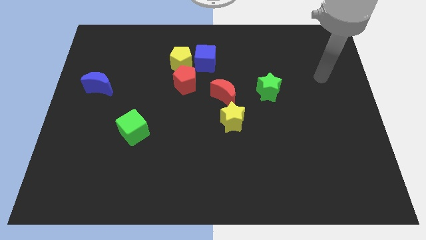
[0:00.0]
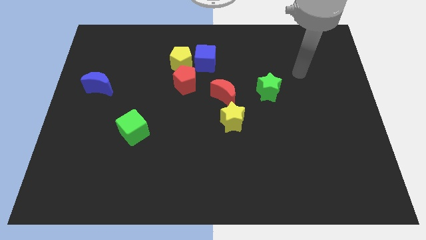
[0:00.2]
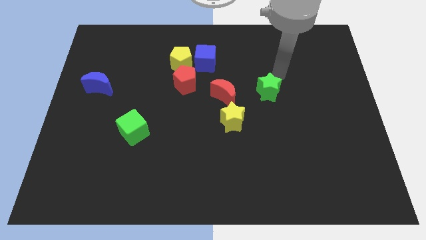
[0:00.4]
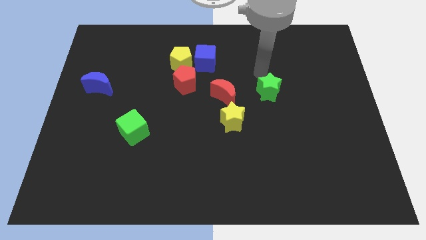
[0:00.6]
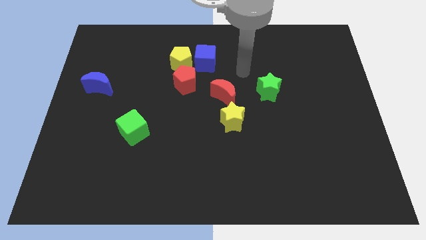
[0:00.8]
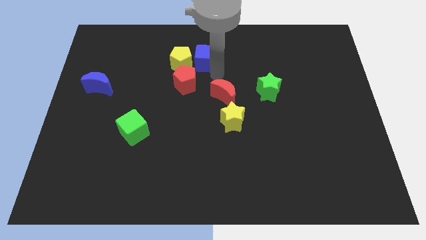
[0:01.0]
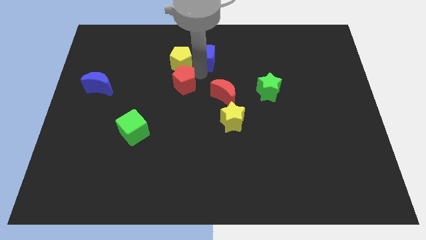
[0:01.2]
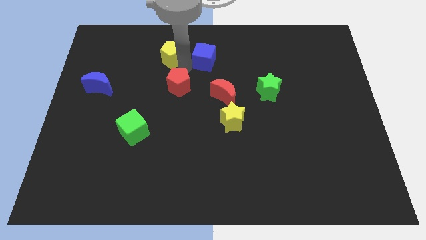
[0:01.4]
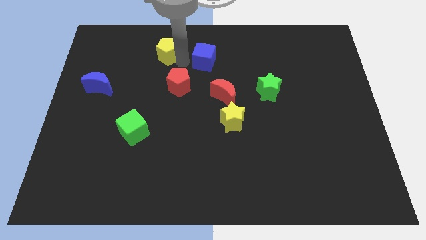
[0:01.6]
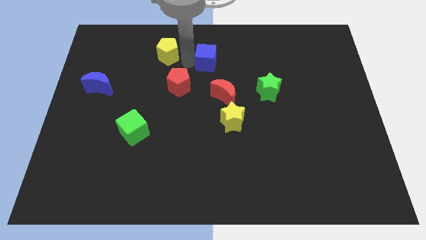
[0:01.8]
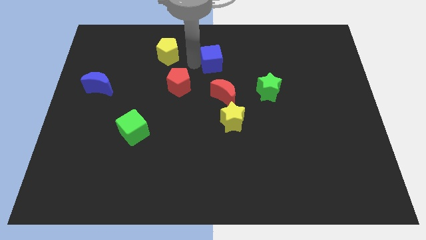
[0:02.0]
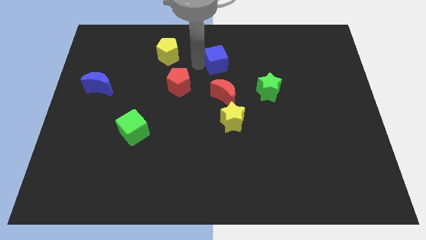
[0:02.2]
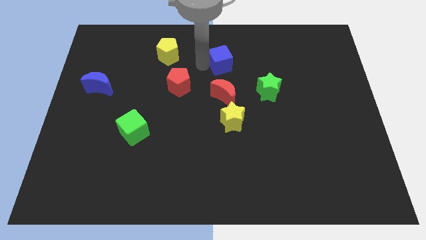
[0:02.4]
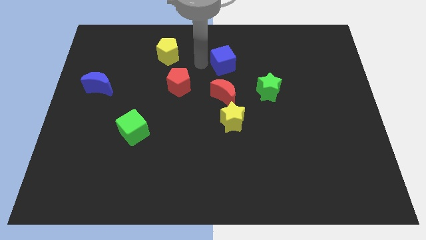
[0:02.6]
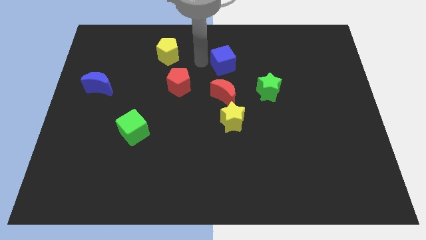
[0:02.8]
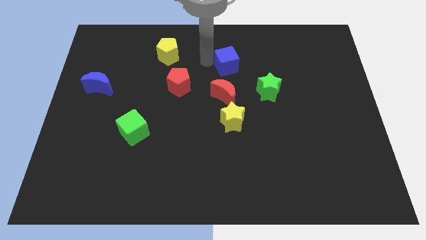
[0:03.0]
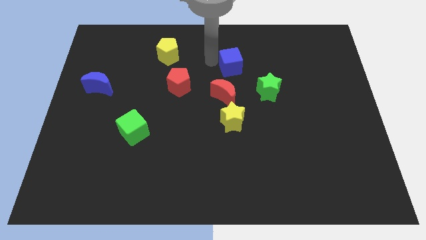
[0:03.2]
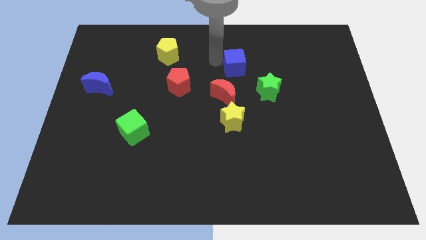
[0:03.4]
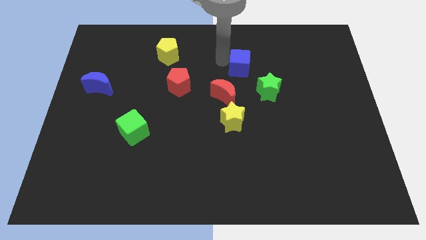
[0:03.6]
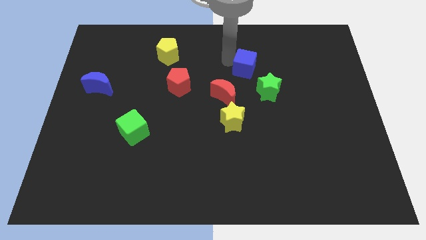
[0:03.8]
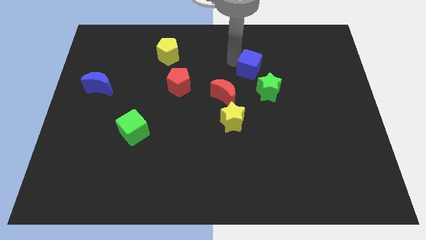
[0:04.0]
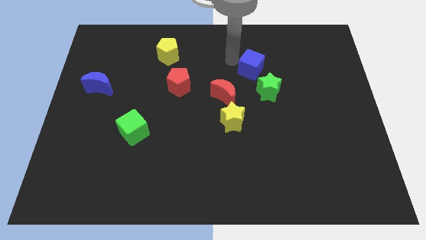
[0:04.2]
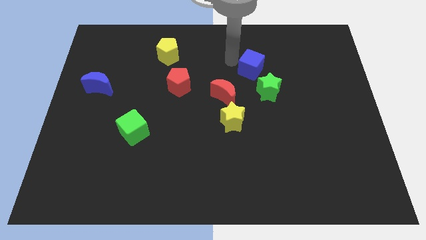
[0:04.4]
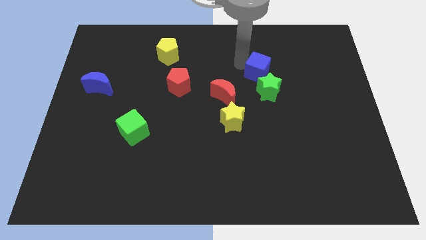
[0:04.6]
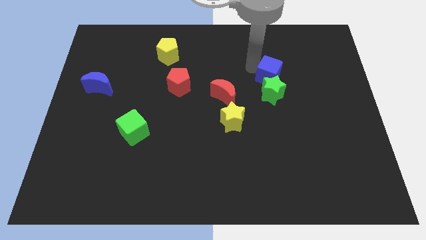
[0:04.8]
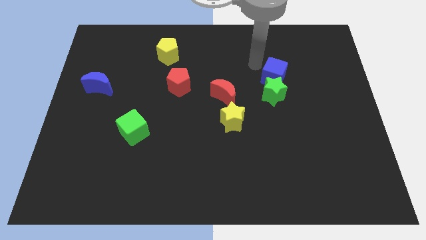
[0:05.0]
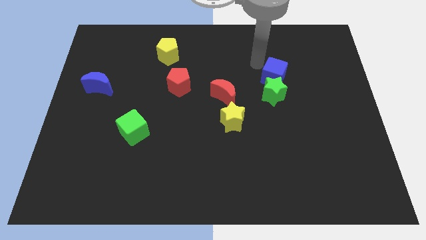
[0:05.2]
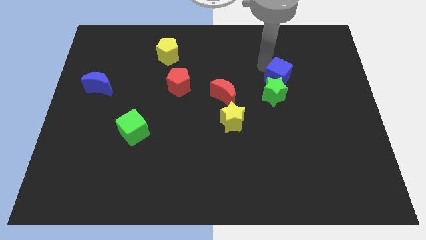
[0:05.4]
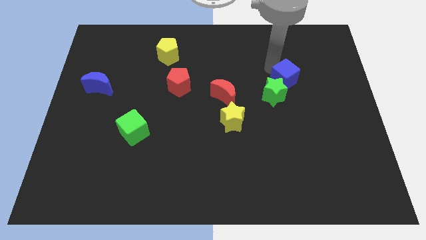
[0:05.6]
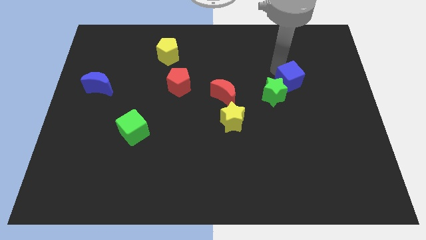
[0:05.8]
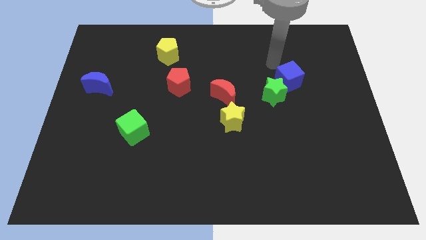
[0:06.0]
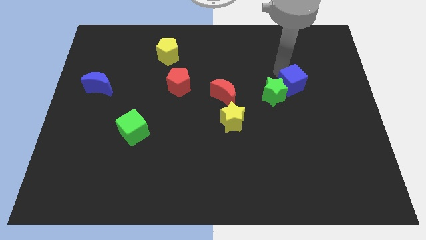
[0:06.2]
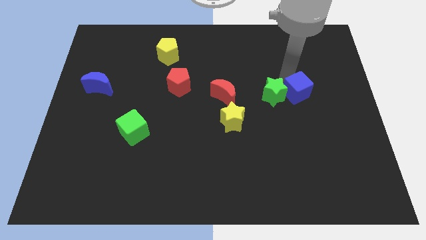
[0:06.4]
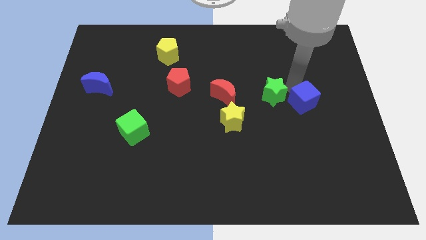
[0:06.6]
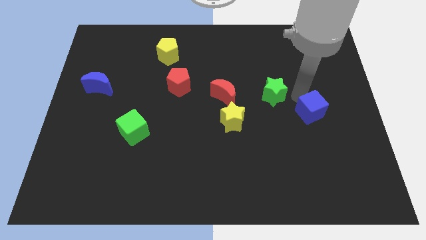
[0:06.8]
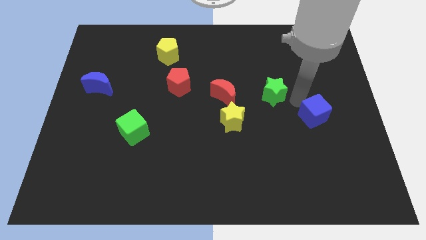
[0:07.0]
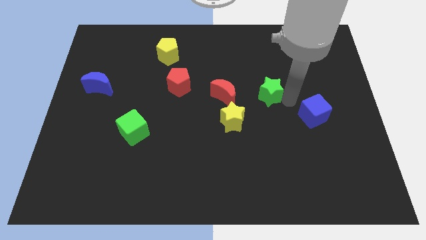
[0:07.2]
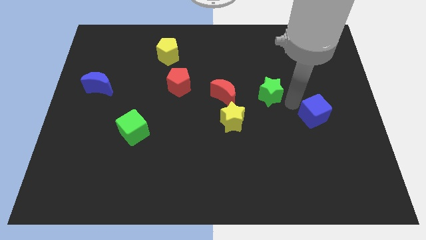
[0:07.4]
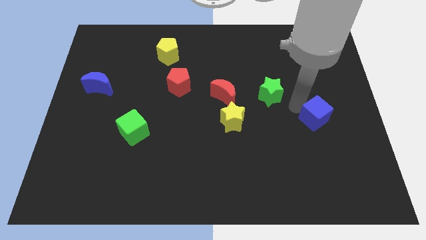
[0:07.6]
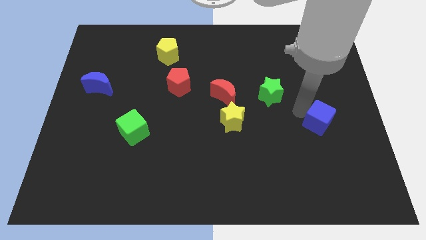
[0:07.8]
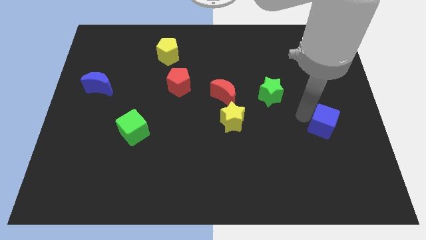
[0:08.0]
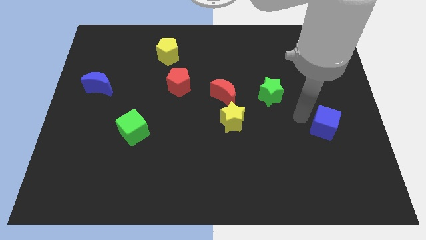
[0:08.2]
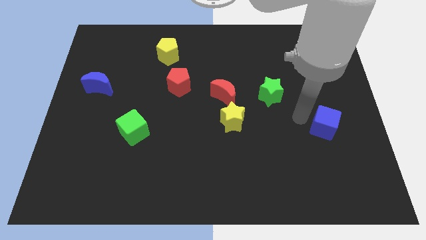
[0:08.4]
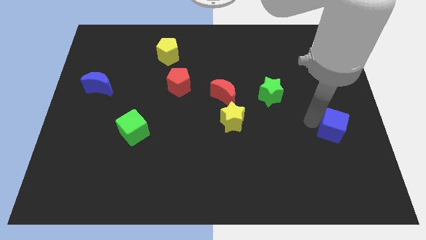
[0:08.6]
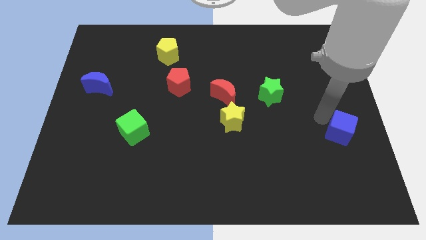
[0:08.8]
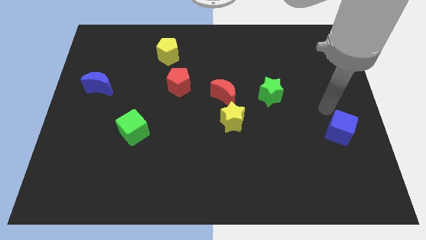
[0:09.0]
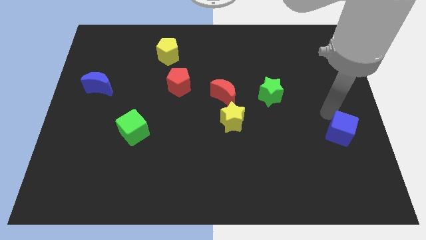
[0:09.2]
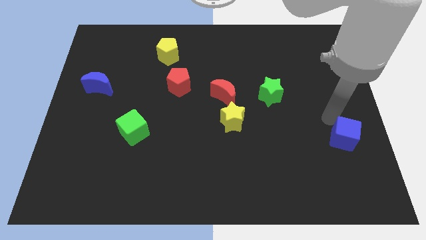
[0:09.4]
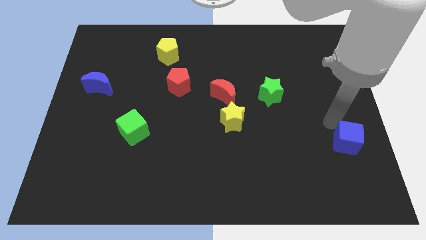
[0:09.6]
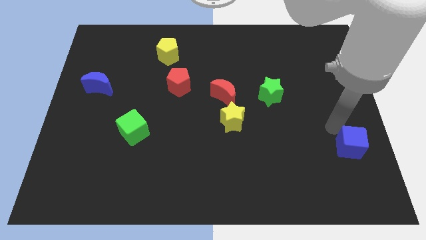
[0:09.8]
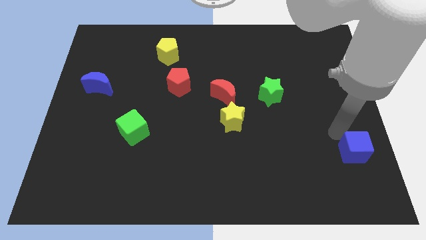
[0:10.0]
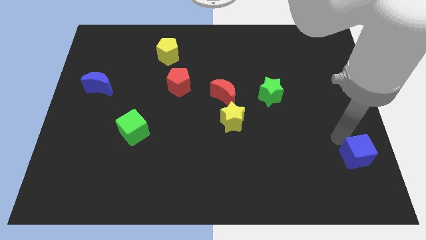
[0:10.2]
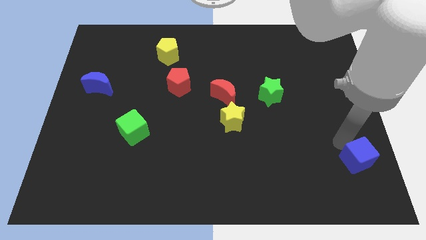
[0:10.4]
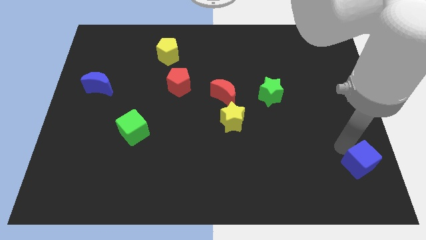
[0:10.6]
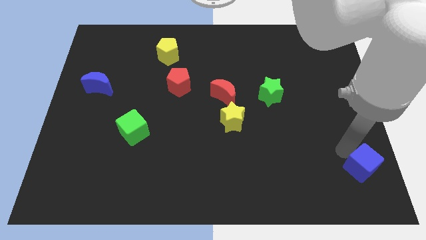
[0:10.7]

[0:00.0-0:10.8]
push the blue cube to the lower right corner
